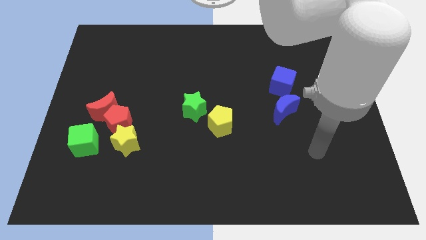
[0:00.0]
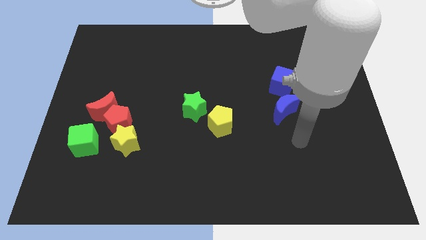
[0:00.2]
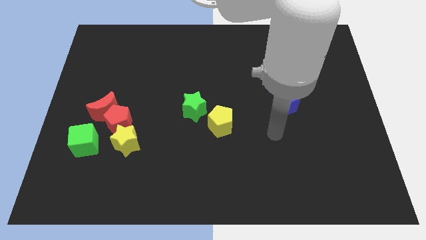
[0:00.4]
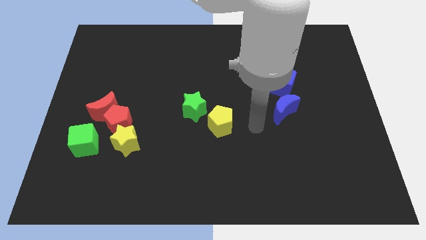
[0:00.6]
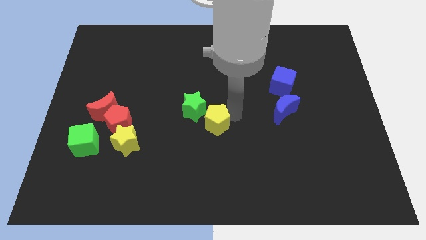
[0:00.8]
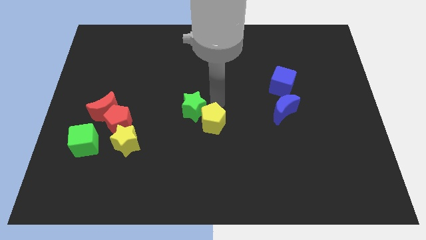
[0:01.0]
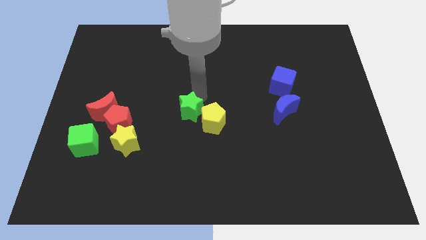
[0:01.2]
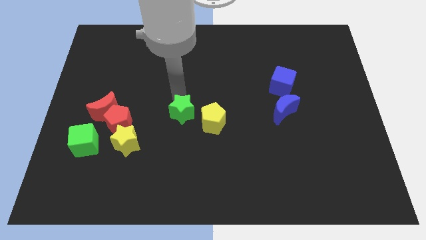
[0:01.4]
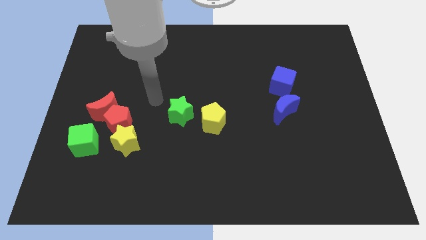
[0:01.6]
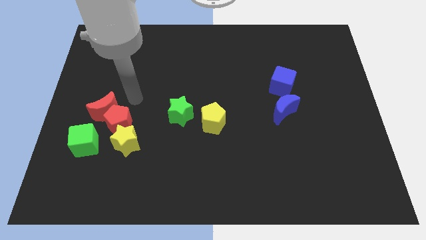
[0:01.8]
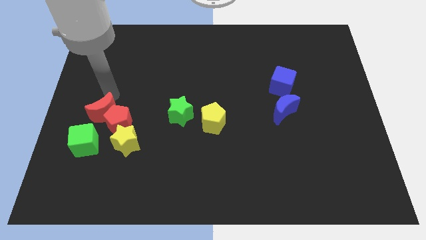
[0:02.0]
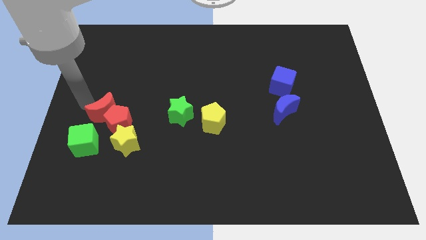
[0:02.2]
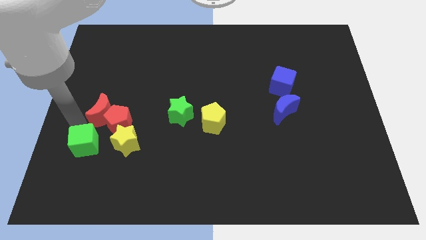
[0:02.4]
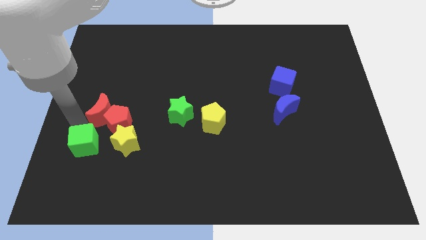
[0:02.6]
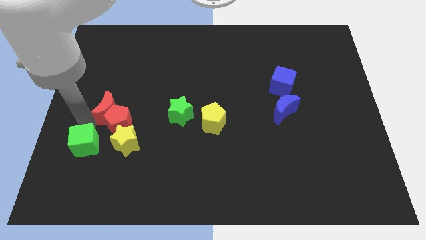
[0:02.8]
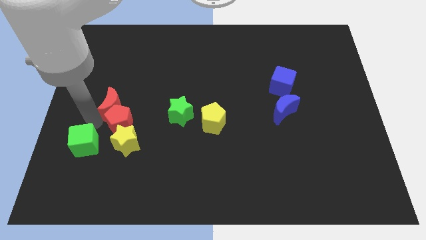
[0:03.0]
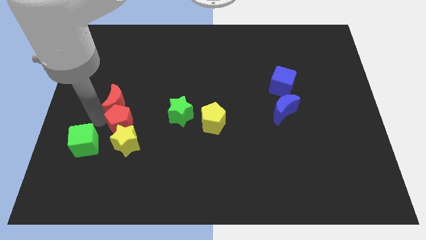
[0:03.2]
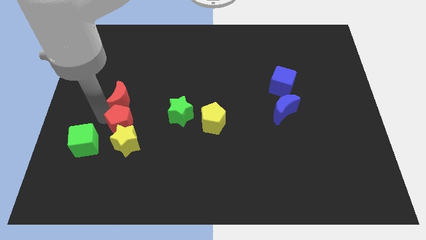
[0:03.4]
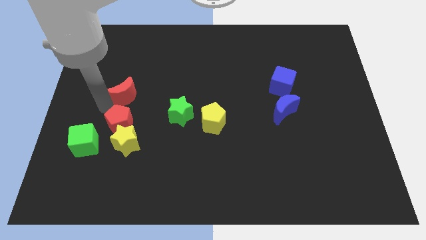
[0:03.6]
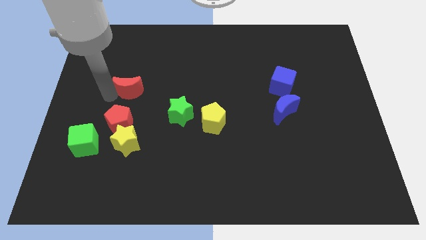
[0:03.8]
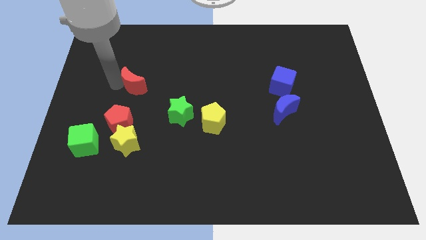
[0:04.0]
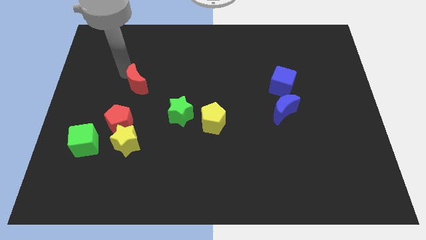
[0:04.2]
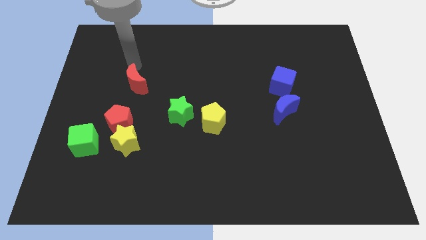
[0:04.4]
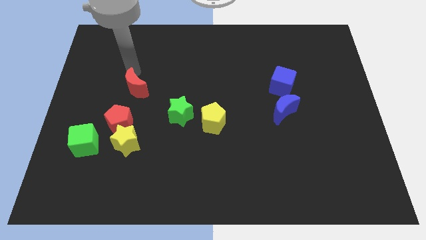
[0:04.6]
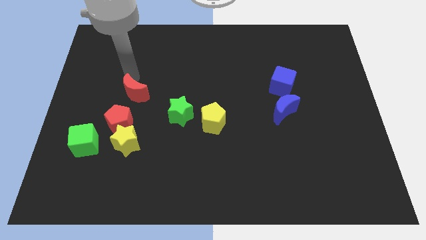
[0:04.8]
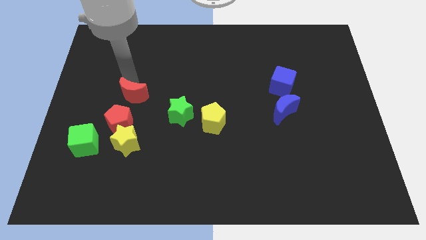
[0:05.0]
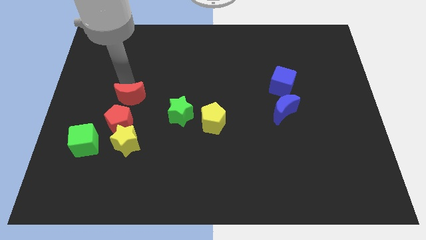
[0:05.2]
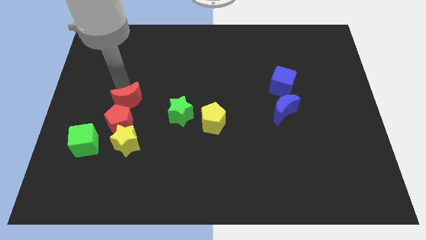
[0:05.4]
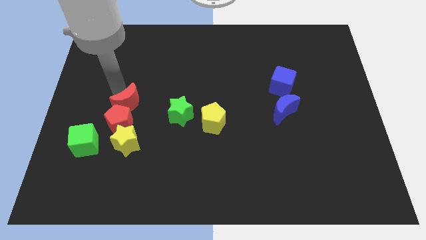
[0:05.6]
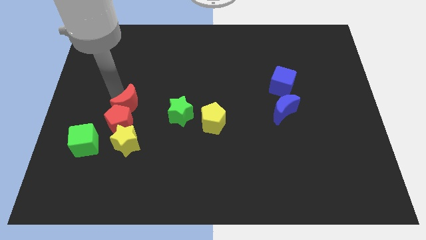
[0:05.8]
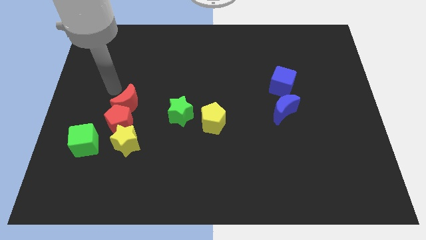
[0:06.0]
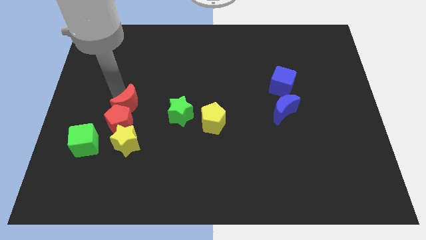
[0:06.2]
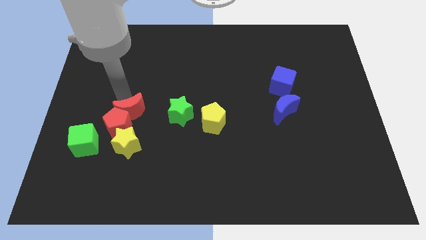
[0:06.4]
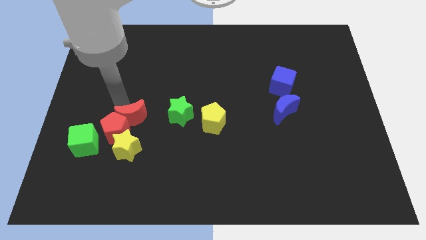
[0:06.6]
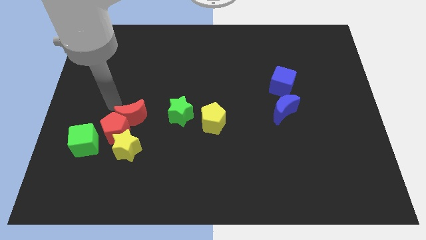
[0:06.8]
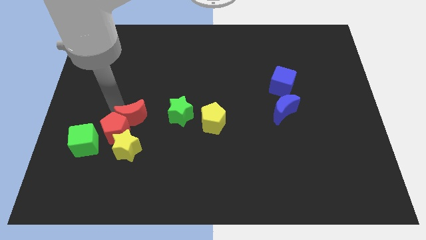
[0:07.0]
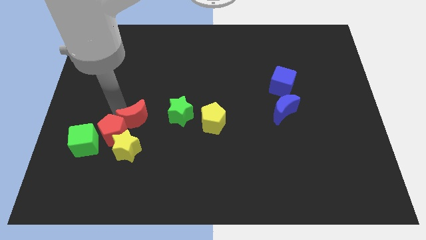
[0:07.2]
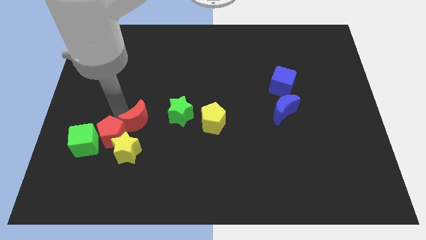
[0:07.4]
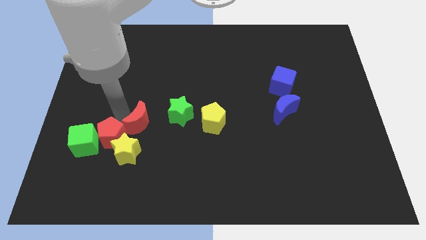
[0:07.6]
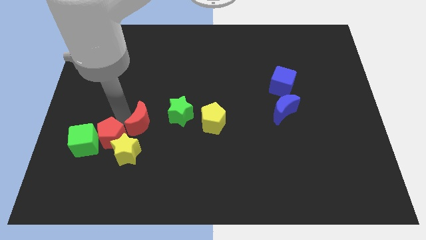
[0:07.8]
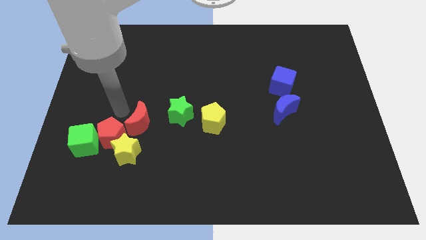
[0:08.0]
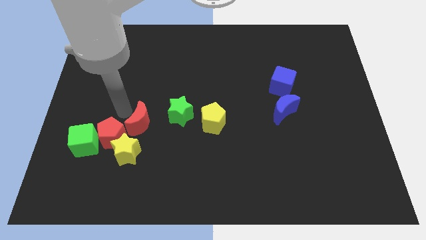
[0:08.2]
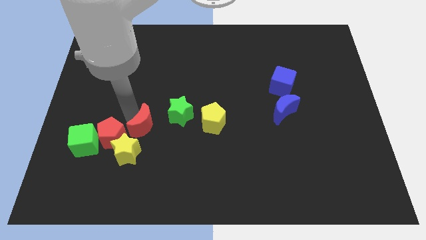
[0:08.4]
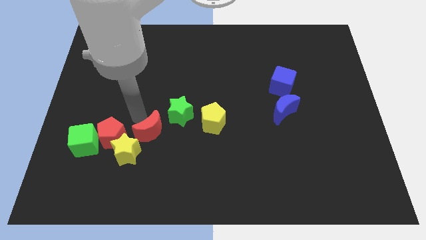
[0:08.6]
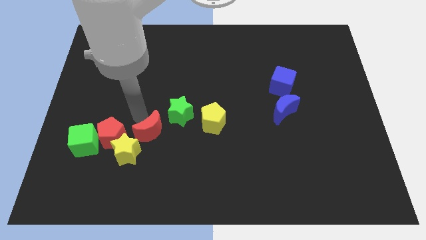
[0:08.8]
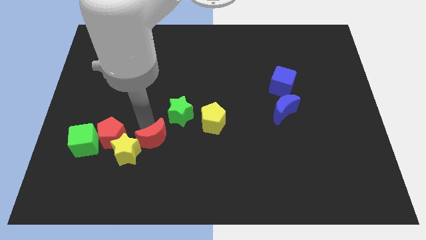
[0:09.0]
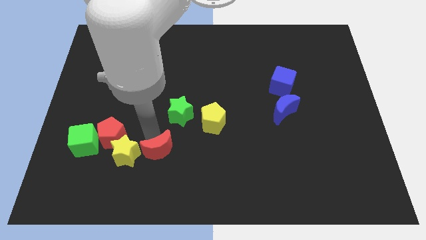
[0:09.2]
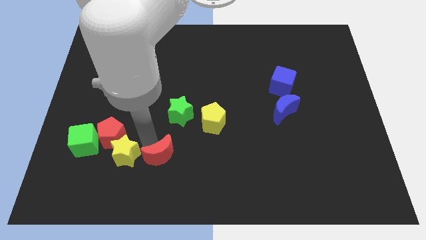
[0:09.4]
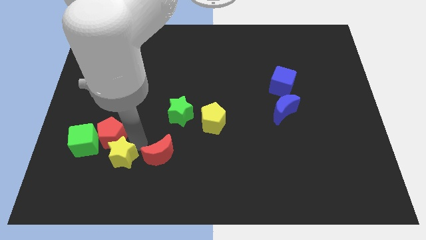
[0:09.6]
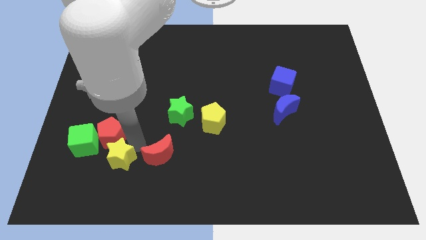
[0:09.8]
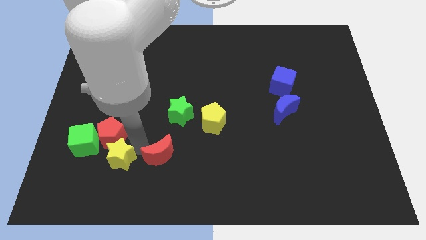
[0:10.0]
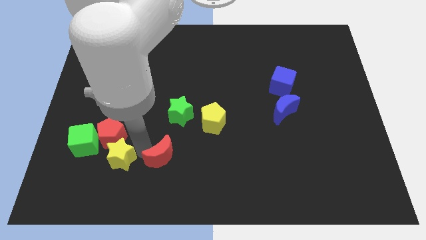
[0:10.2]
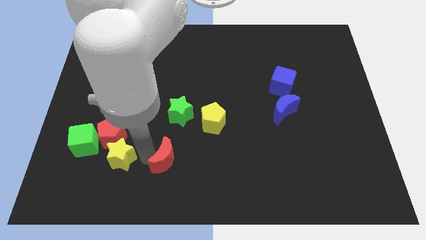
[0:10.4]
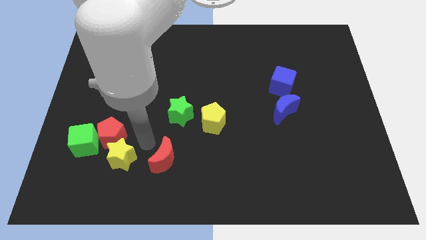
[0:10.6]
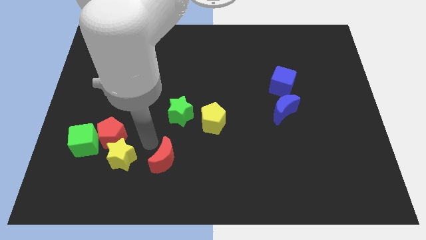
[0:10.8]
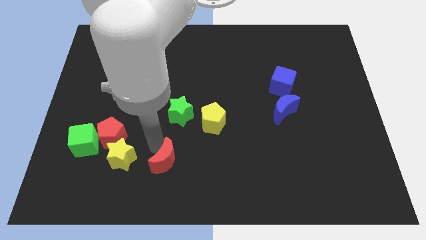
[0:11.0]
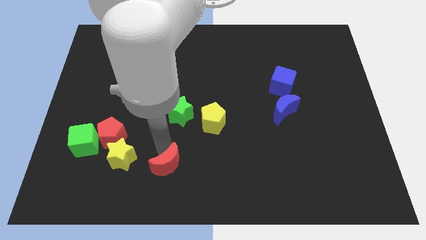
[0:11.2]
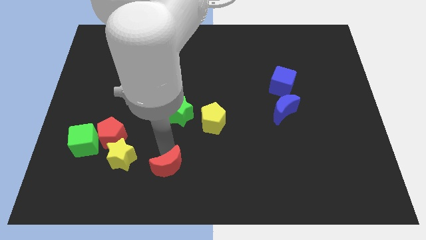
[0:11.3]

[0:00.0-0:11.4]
slide the red moon to the bottom side

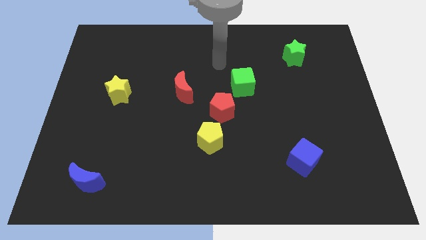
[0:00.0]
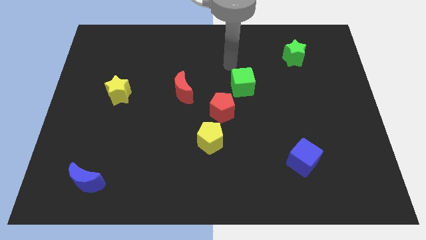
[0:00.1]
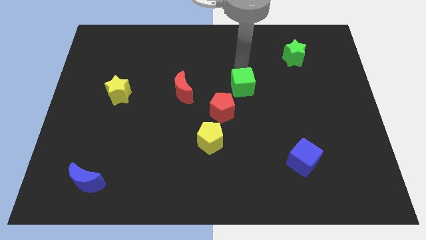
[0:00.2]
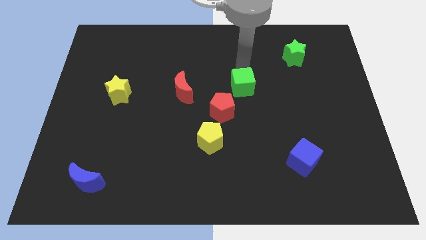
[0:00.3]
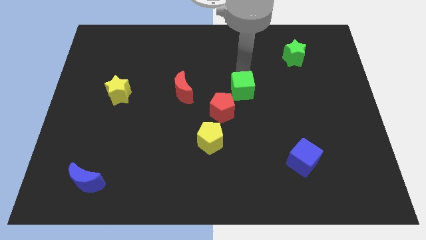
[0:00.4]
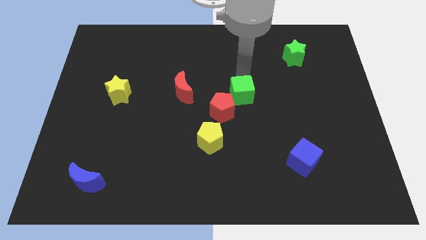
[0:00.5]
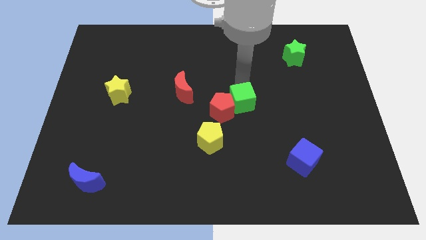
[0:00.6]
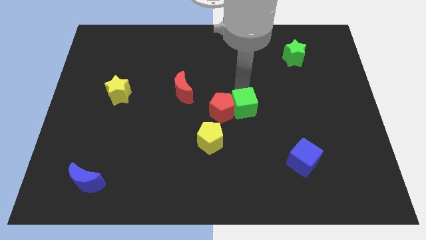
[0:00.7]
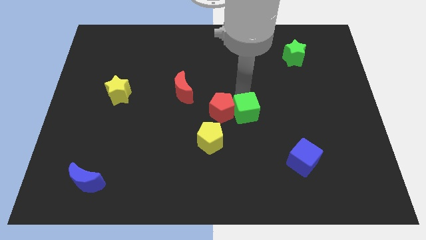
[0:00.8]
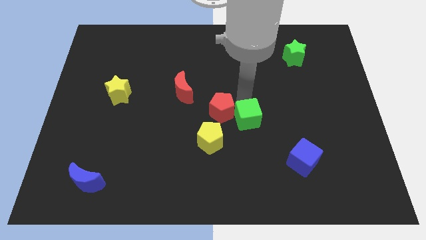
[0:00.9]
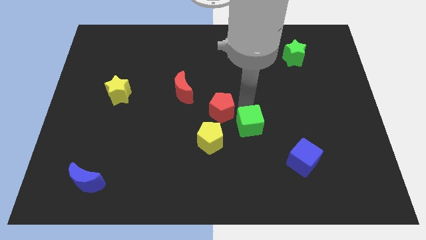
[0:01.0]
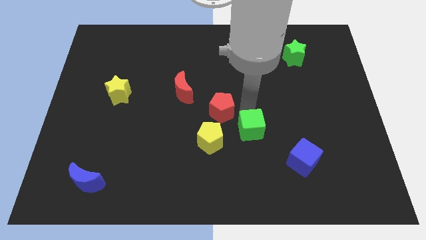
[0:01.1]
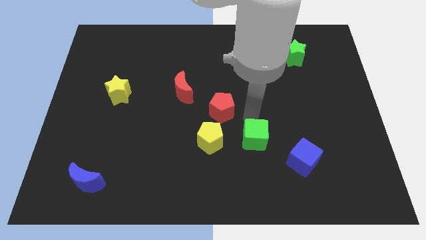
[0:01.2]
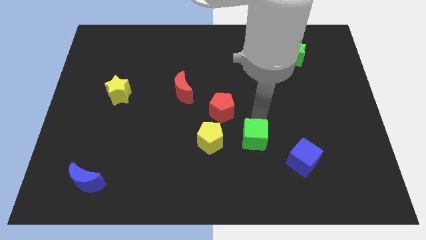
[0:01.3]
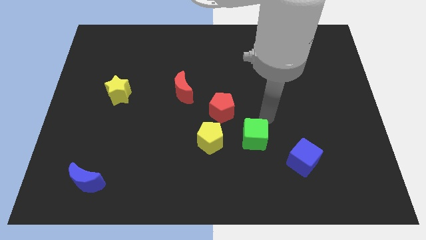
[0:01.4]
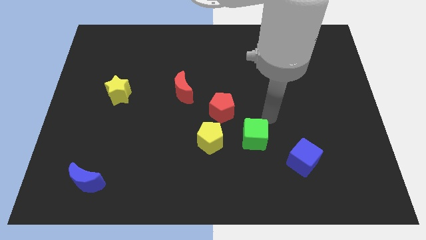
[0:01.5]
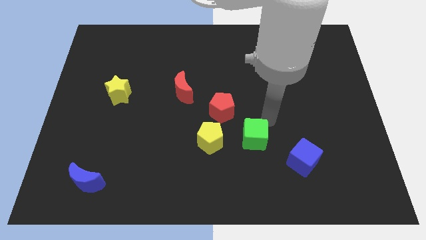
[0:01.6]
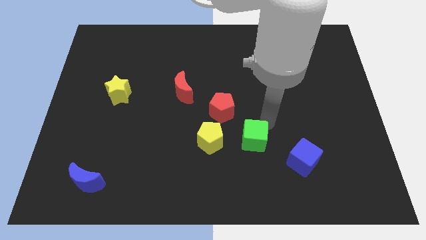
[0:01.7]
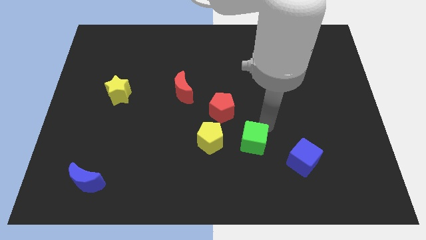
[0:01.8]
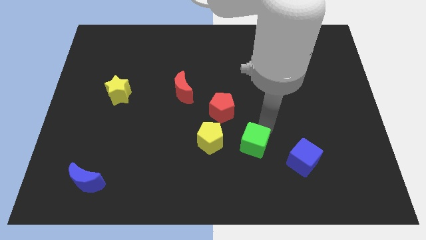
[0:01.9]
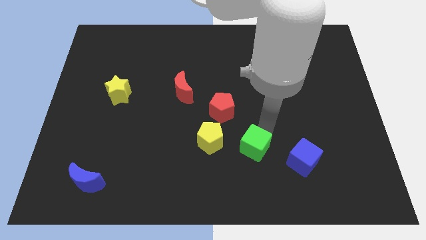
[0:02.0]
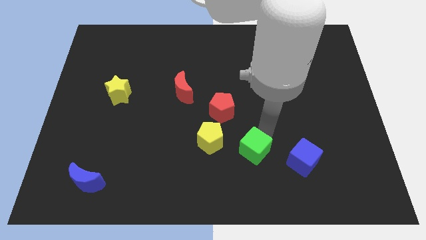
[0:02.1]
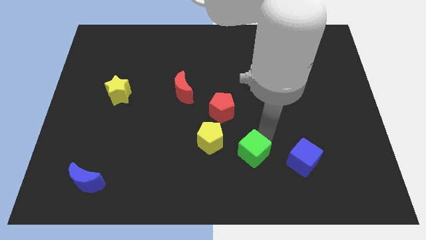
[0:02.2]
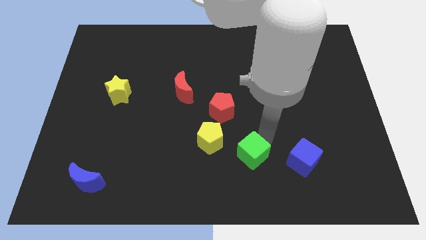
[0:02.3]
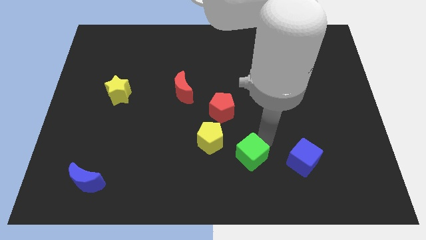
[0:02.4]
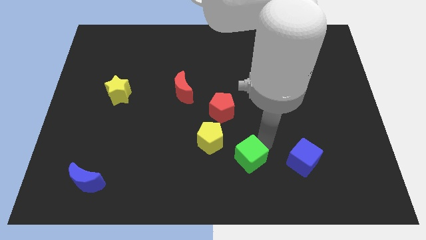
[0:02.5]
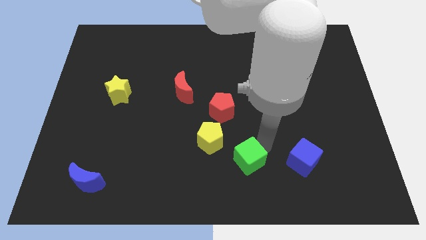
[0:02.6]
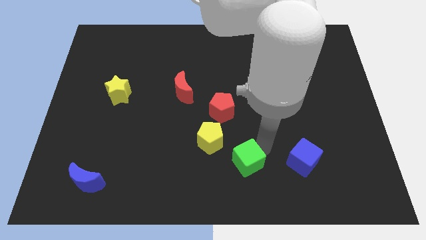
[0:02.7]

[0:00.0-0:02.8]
slide the green cube to the bottom side
